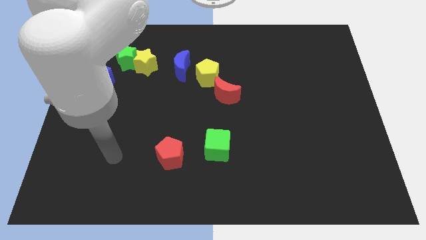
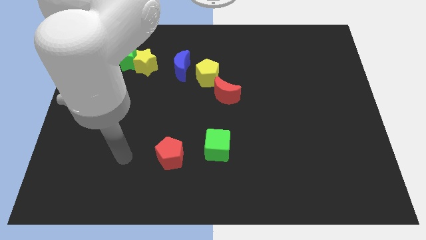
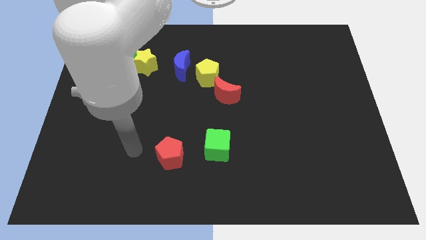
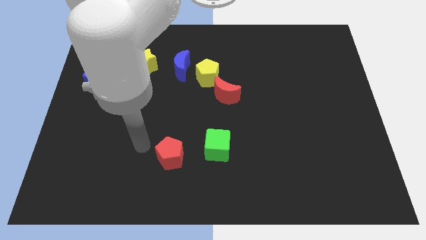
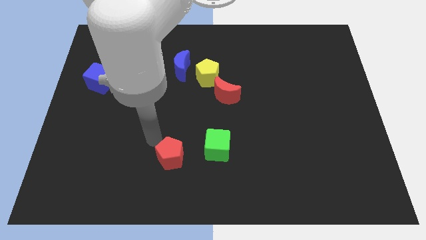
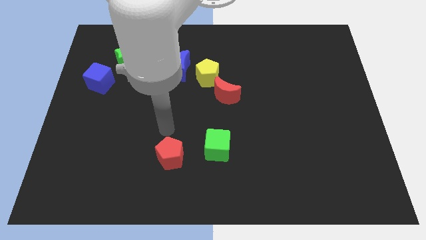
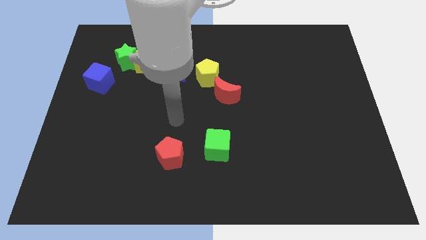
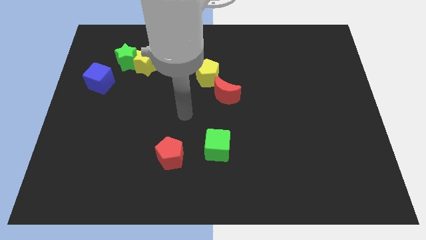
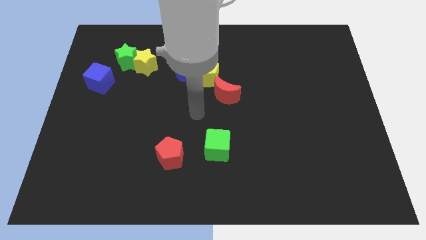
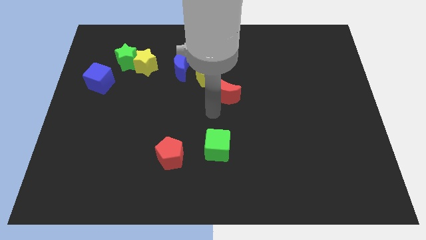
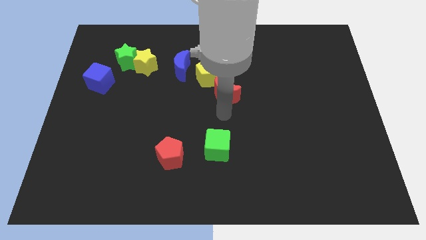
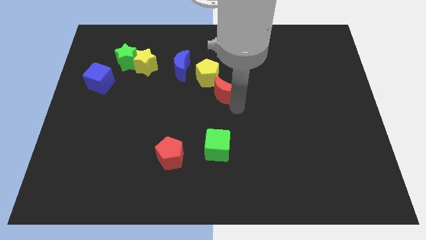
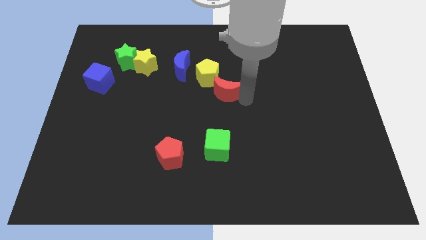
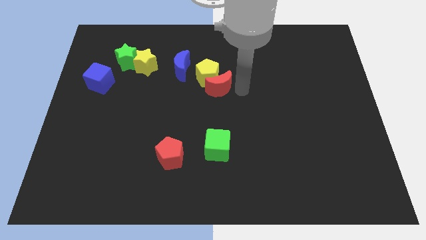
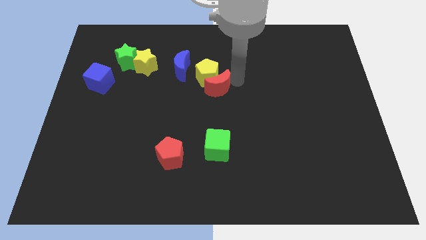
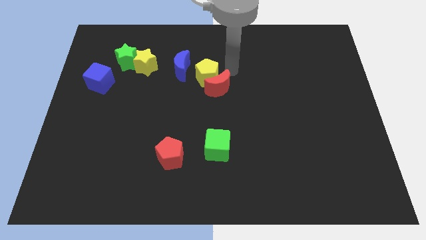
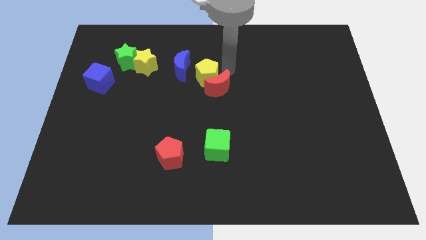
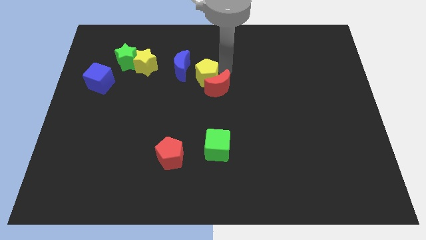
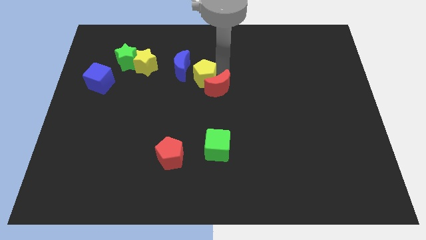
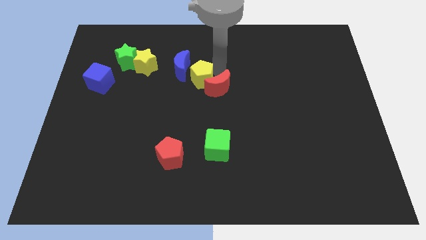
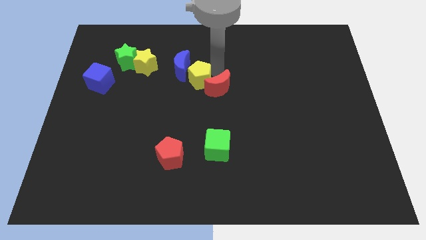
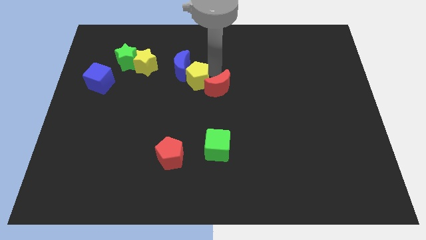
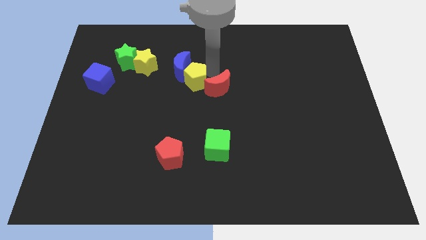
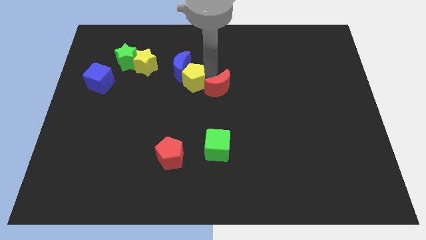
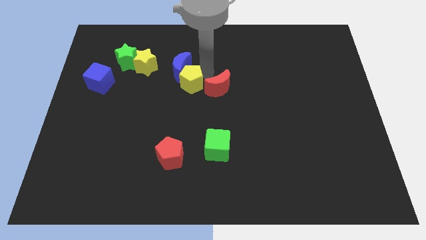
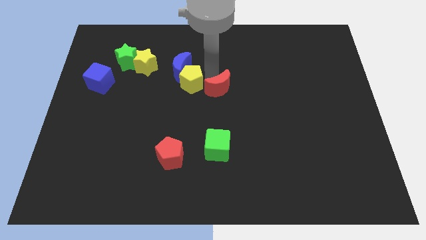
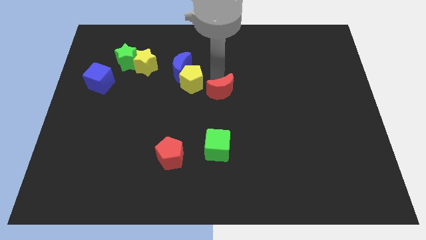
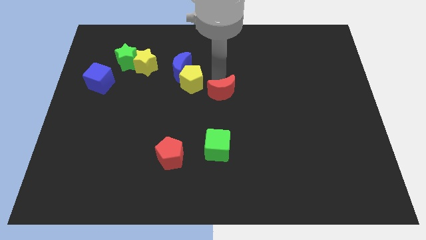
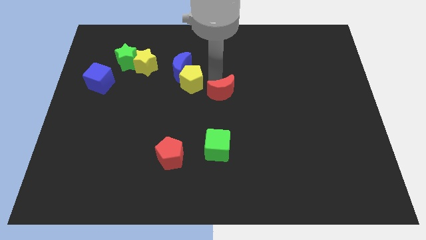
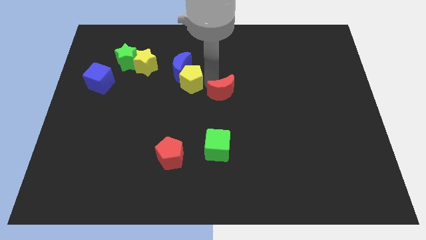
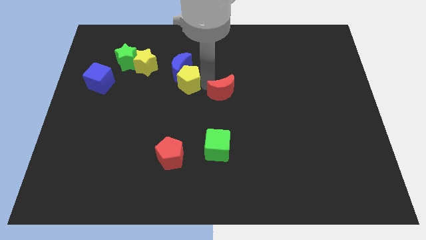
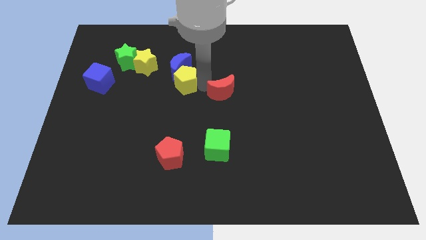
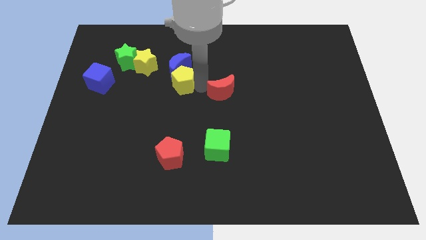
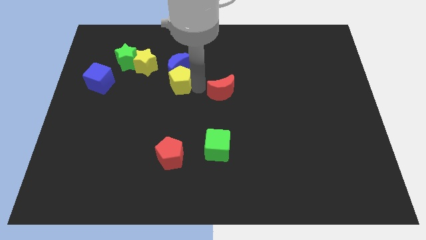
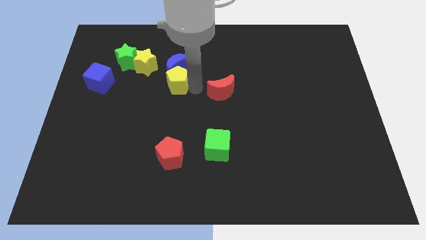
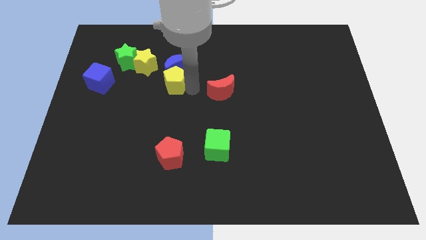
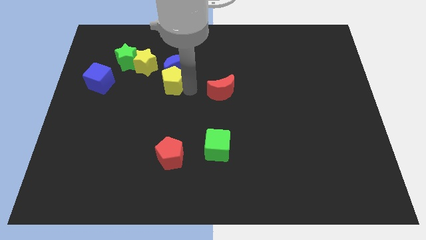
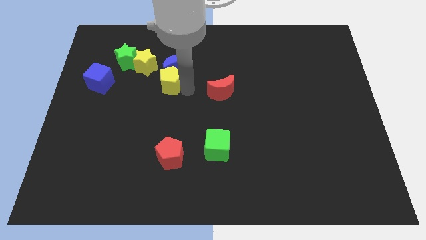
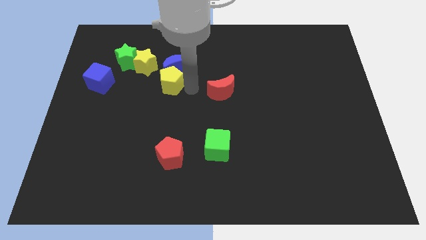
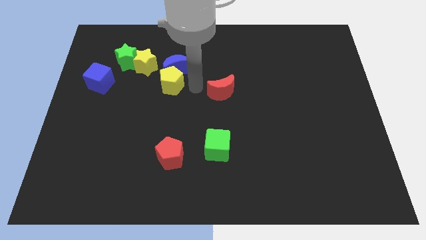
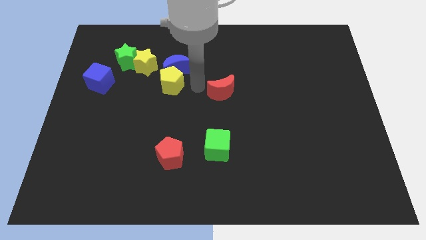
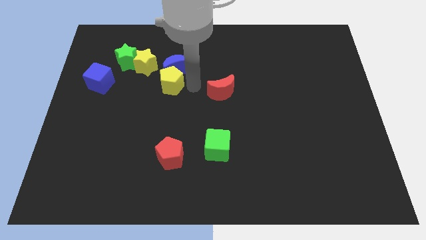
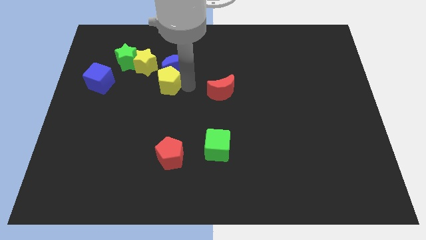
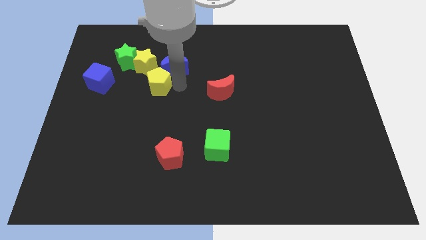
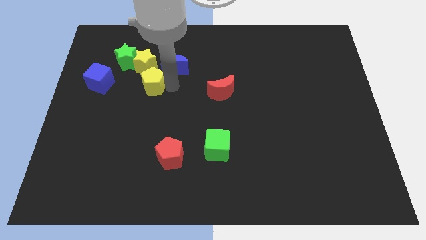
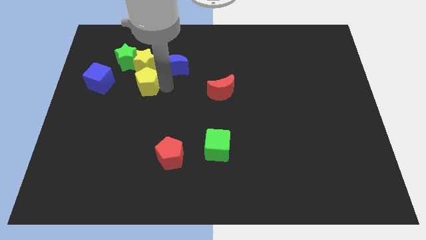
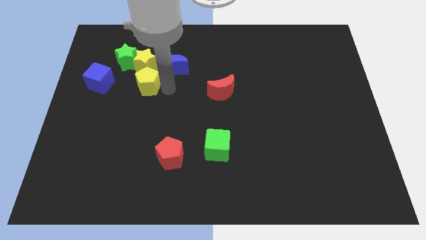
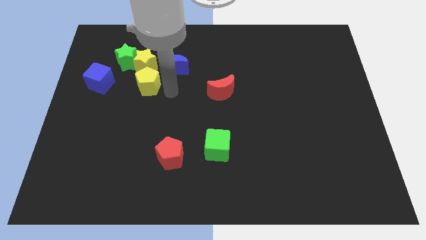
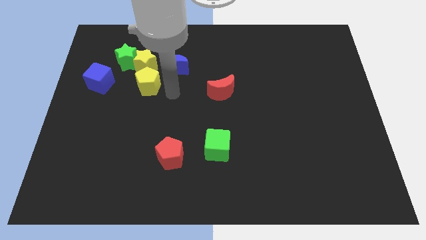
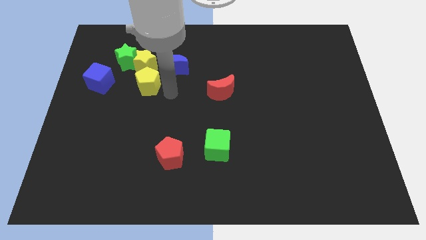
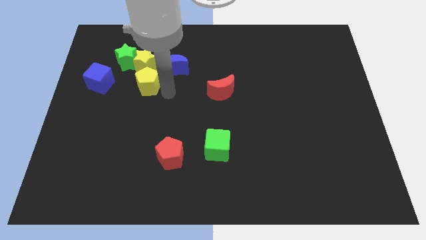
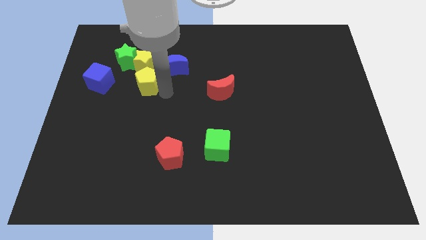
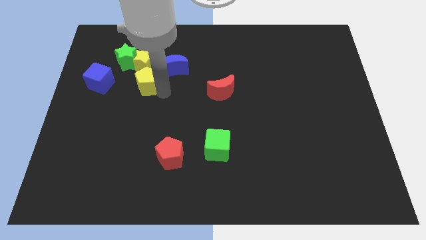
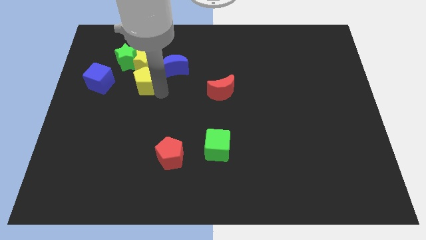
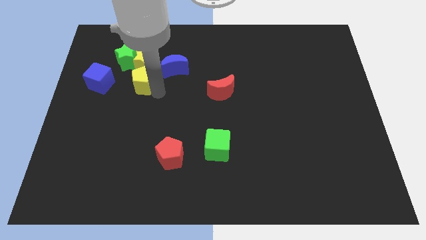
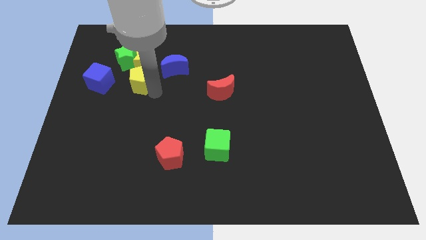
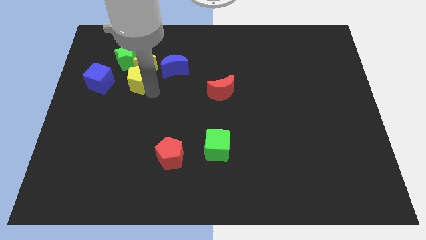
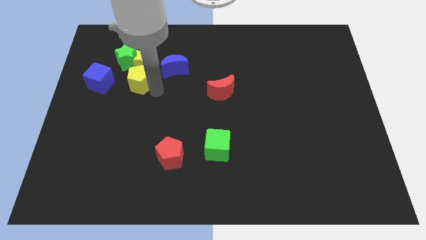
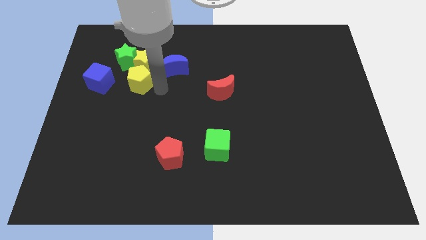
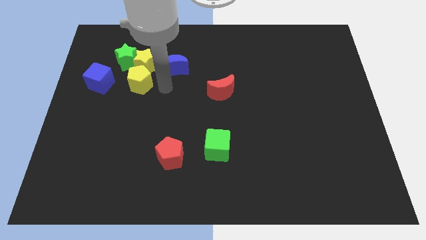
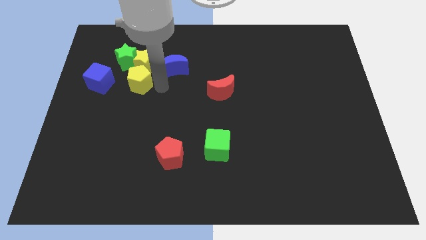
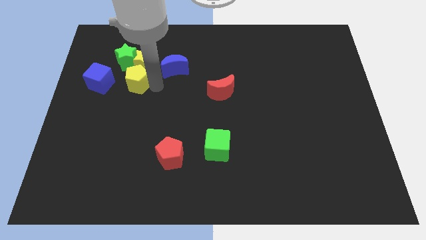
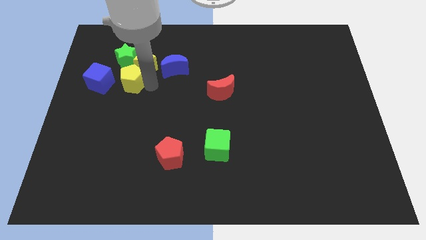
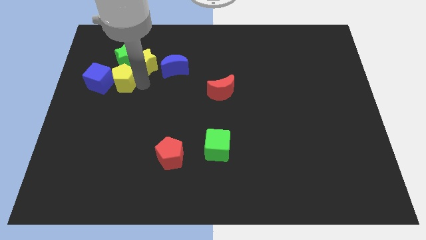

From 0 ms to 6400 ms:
put the yellow pentagon towards the blue cube

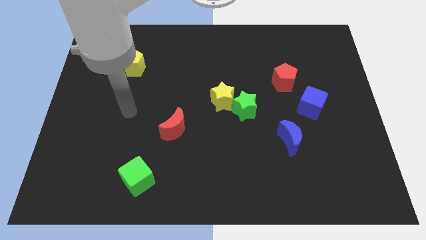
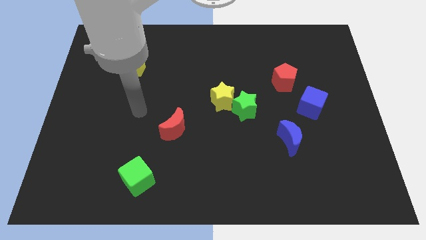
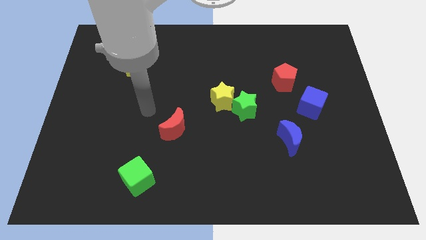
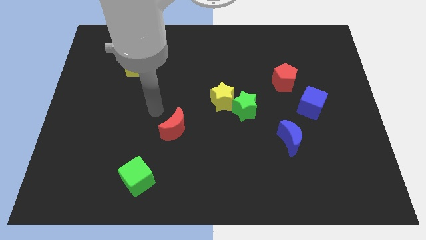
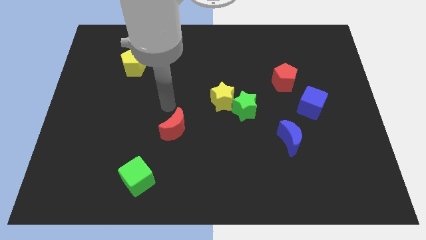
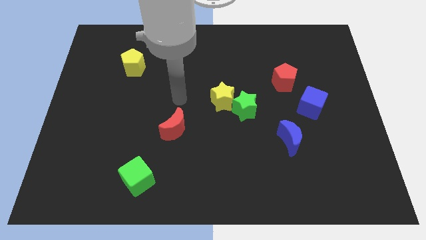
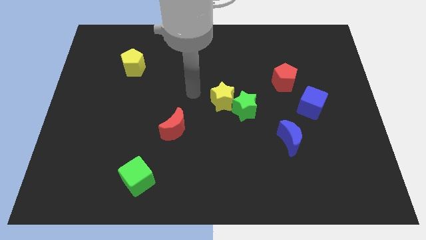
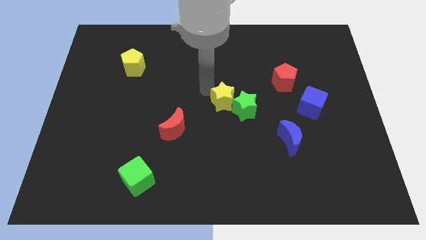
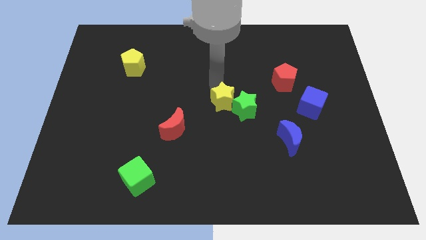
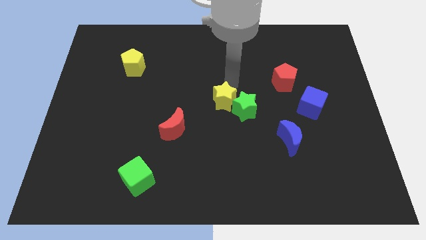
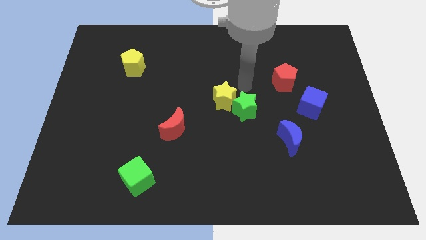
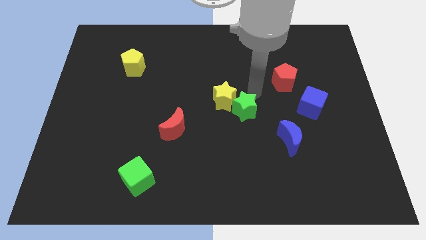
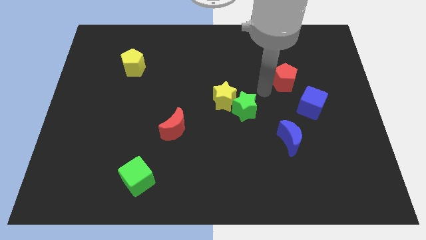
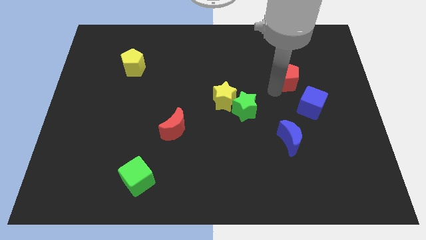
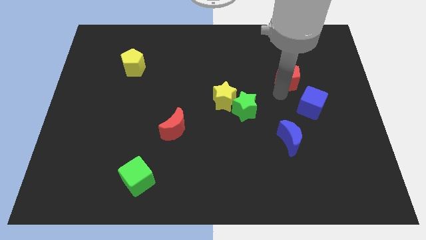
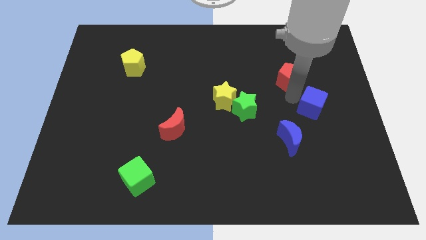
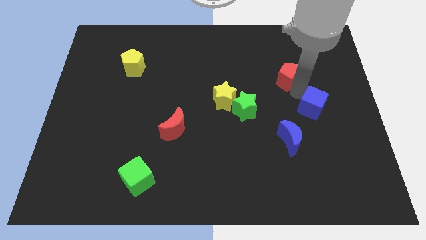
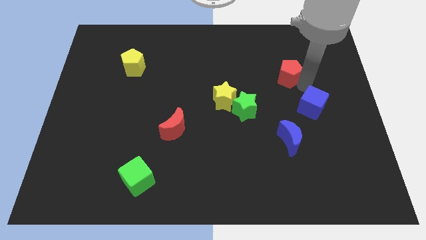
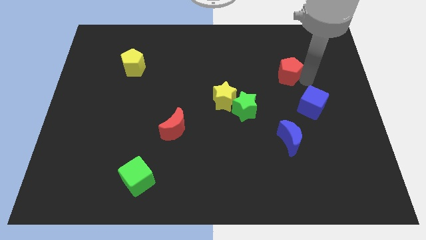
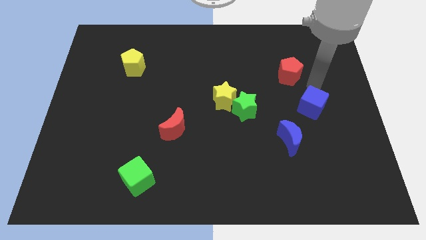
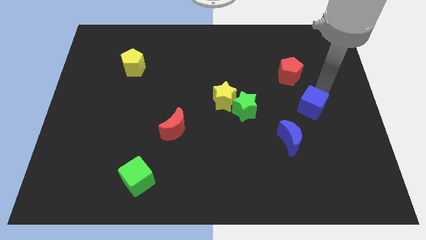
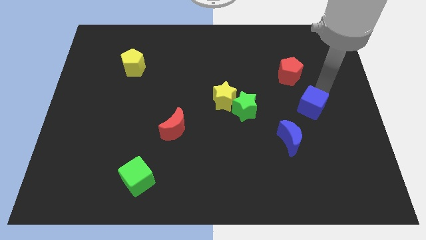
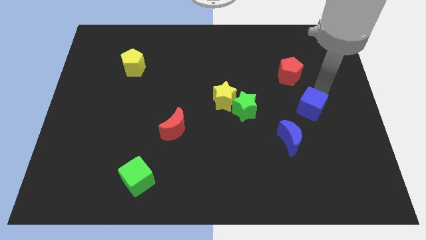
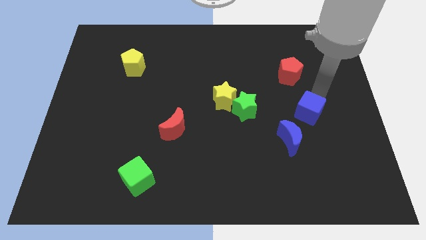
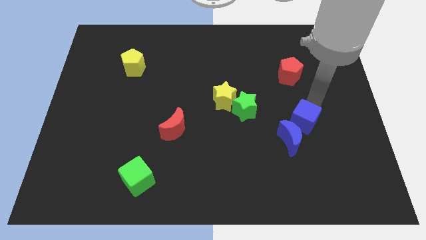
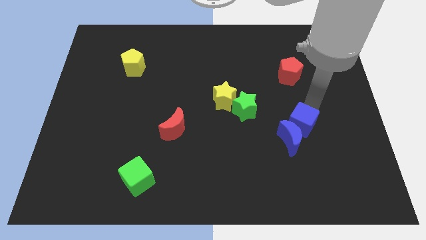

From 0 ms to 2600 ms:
move the blue cube next to the blue moon
